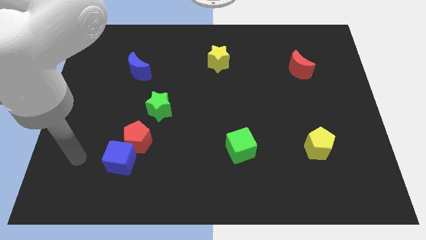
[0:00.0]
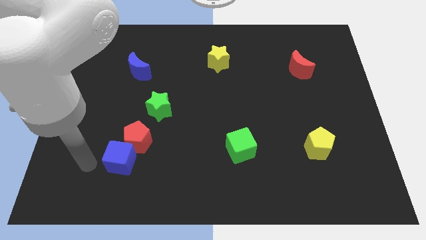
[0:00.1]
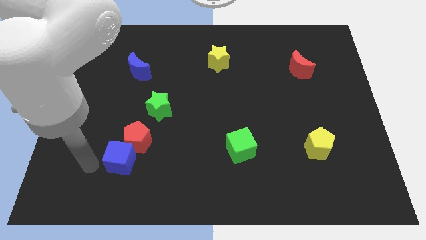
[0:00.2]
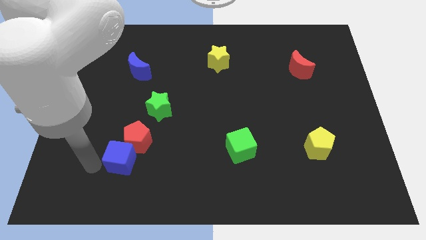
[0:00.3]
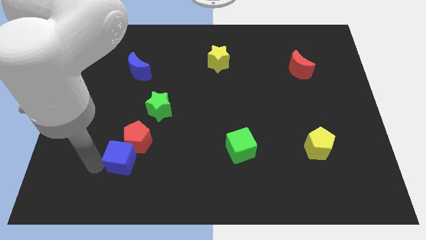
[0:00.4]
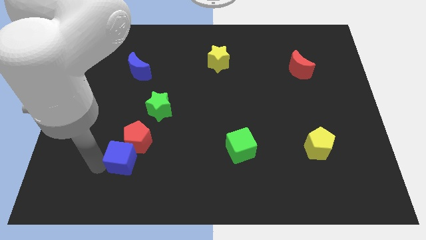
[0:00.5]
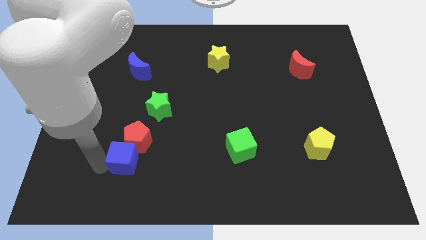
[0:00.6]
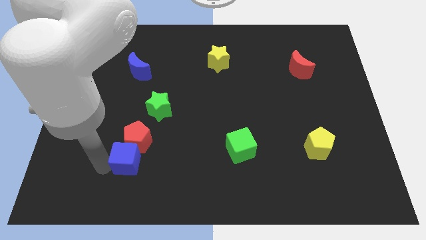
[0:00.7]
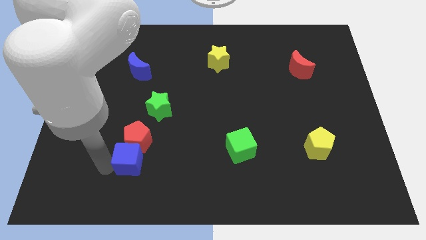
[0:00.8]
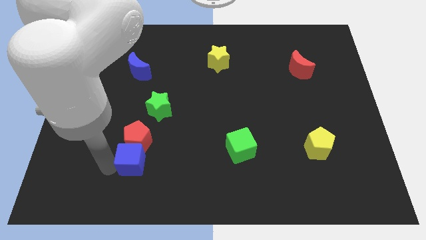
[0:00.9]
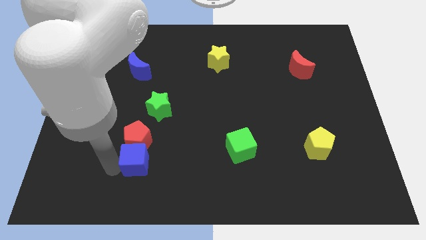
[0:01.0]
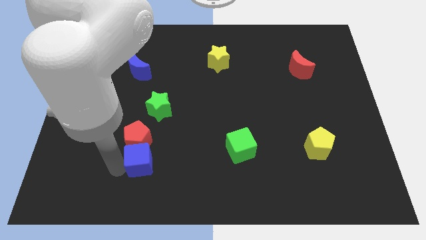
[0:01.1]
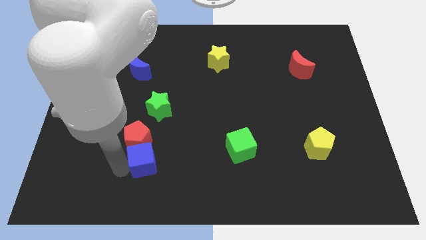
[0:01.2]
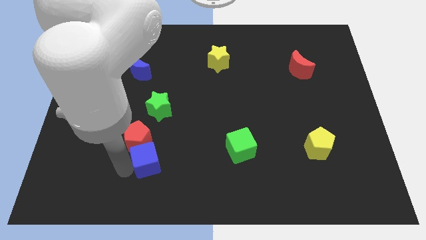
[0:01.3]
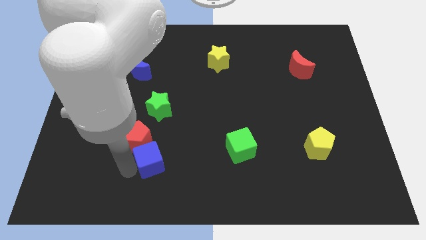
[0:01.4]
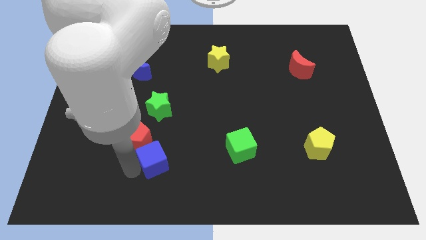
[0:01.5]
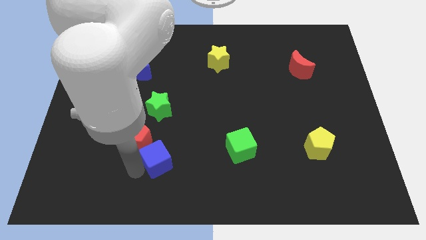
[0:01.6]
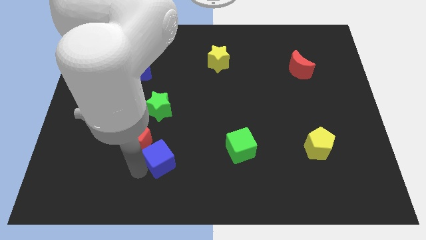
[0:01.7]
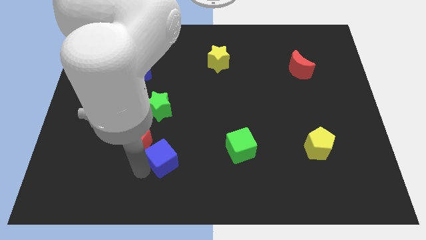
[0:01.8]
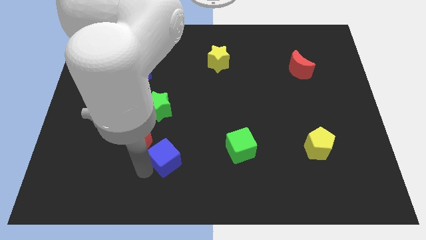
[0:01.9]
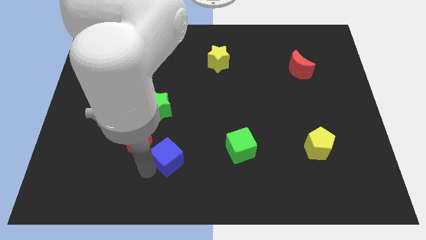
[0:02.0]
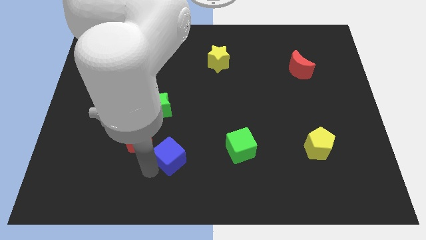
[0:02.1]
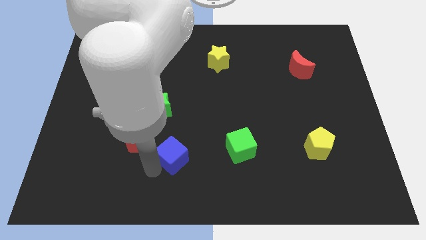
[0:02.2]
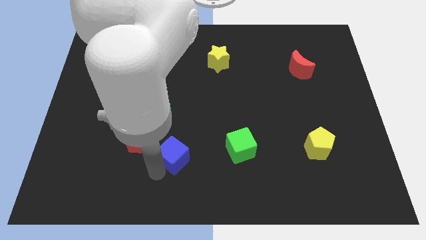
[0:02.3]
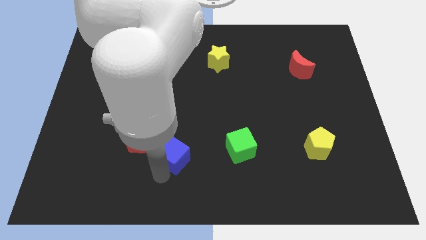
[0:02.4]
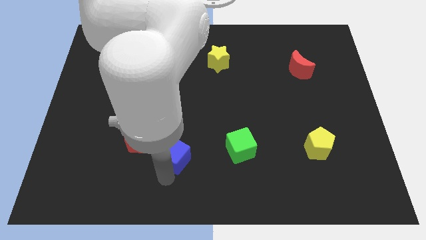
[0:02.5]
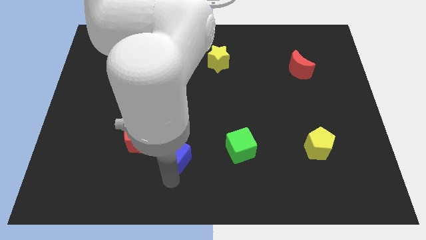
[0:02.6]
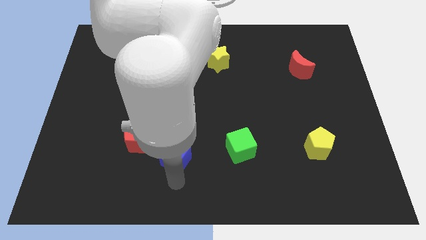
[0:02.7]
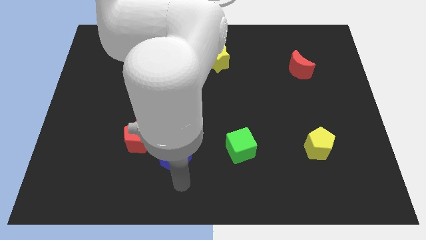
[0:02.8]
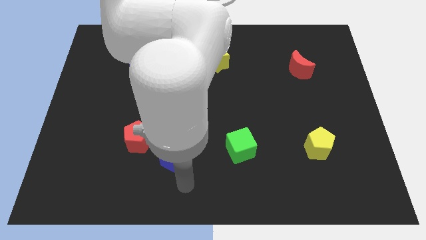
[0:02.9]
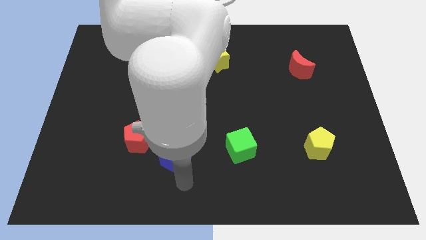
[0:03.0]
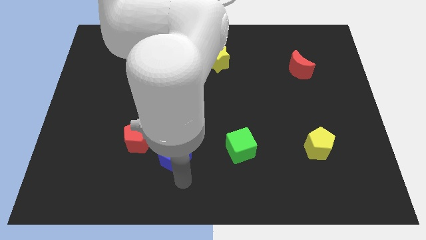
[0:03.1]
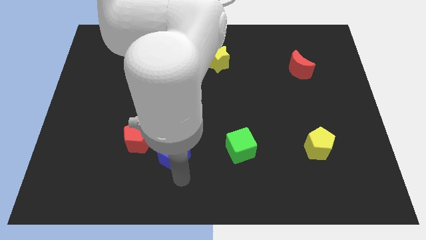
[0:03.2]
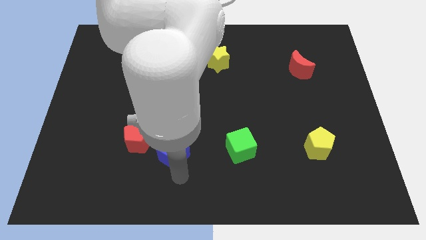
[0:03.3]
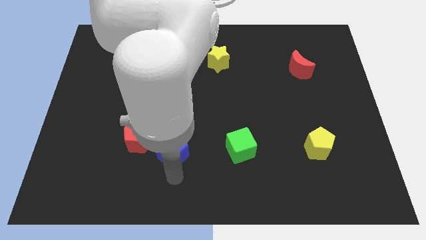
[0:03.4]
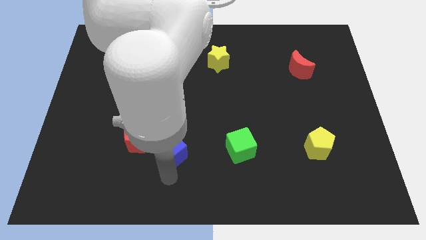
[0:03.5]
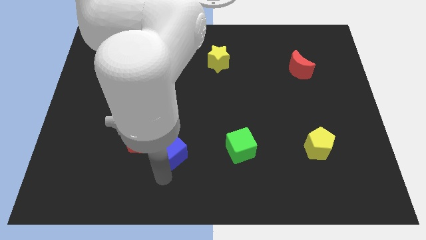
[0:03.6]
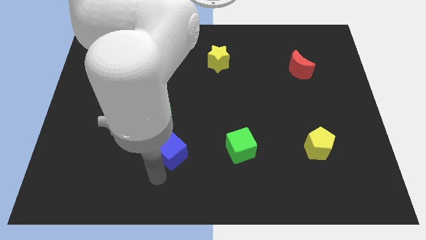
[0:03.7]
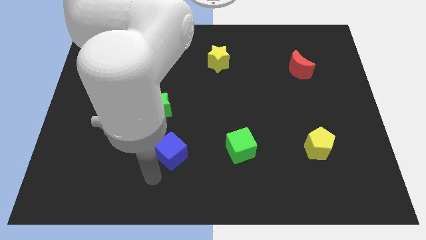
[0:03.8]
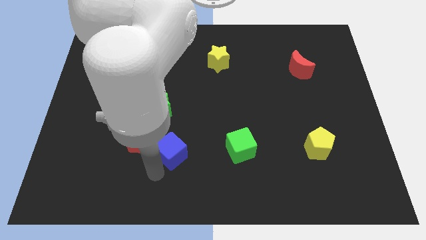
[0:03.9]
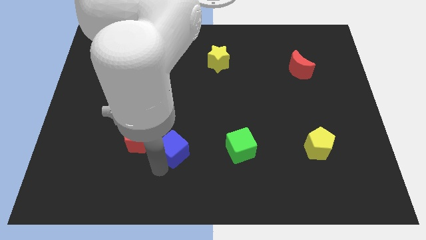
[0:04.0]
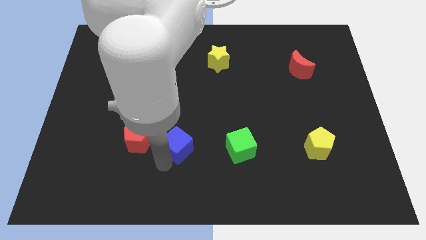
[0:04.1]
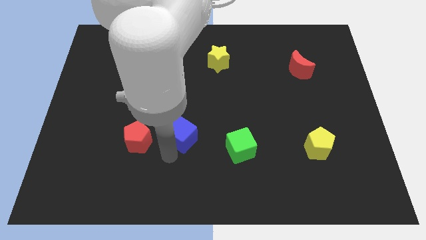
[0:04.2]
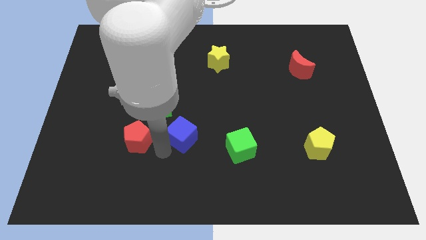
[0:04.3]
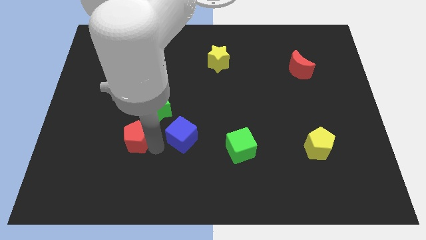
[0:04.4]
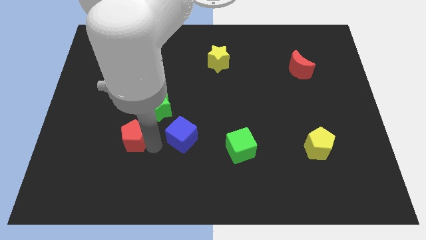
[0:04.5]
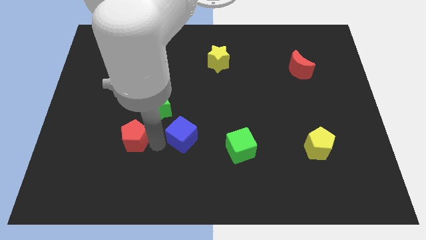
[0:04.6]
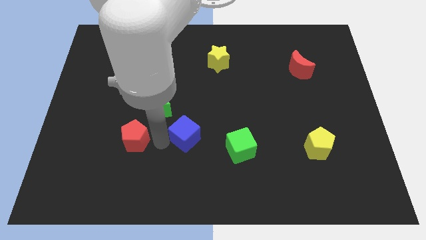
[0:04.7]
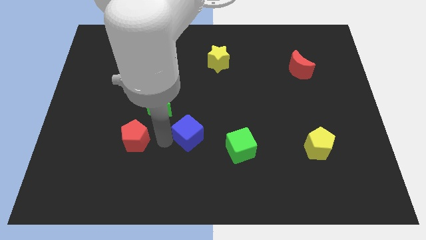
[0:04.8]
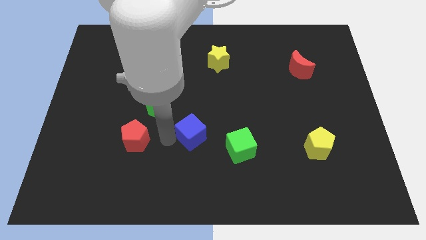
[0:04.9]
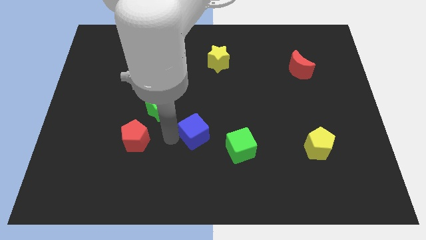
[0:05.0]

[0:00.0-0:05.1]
push the blue cube to the top left side of the green cube

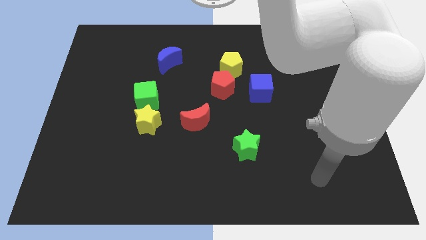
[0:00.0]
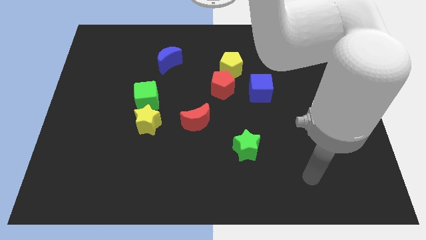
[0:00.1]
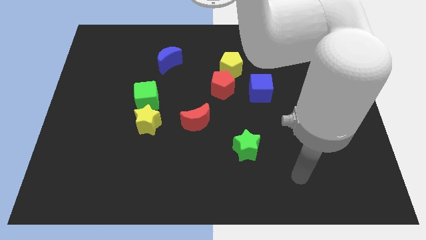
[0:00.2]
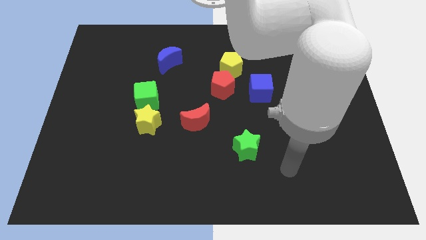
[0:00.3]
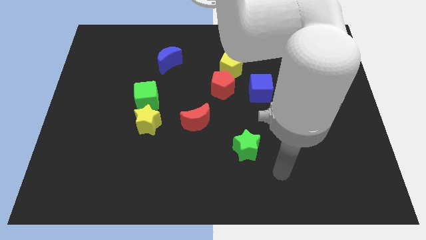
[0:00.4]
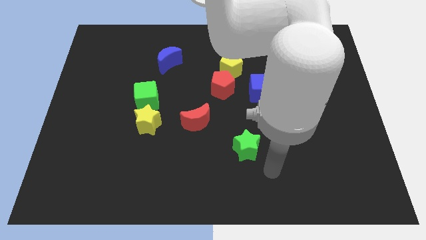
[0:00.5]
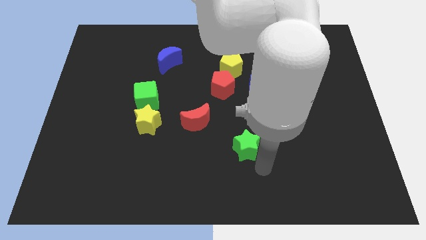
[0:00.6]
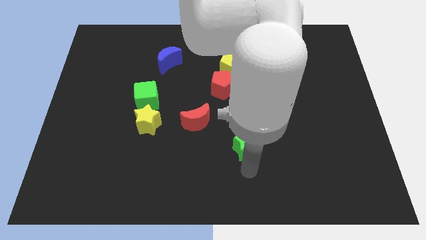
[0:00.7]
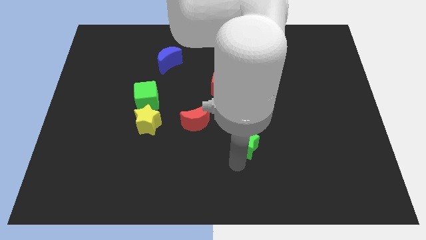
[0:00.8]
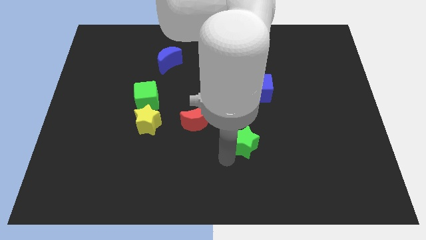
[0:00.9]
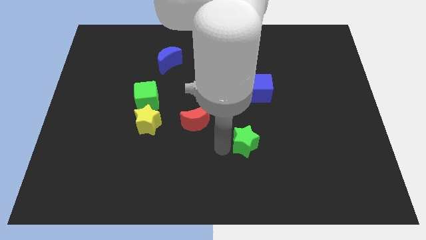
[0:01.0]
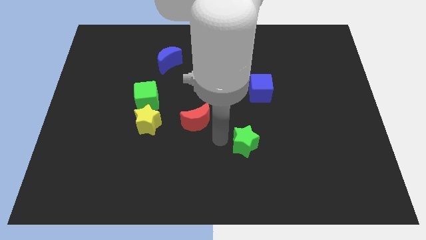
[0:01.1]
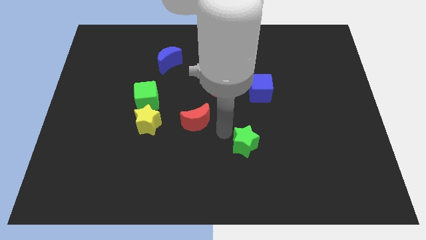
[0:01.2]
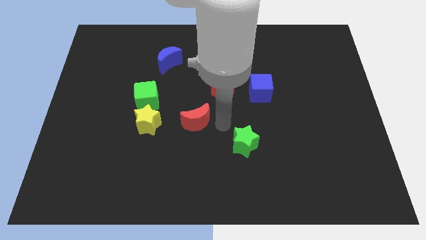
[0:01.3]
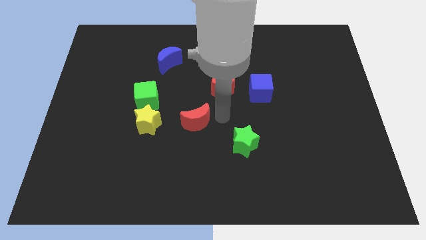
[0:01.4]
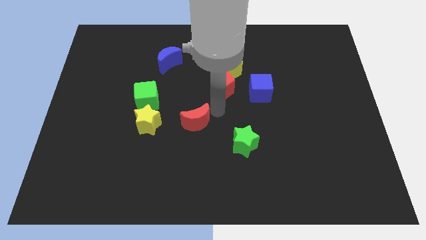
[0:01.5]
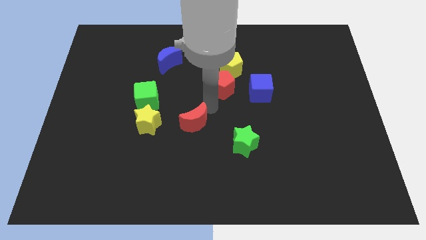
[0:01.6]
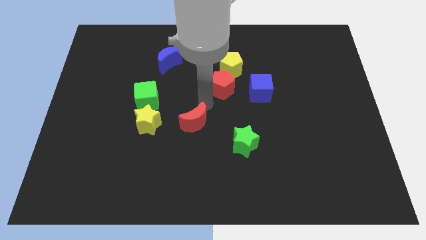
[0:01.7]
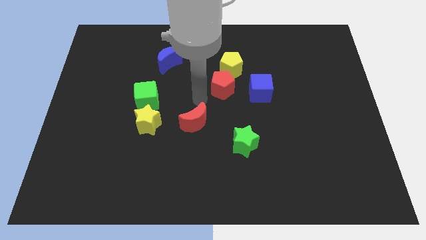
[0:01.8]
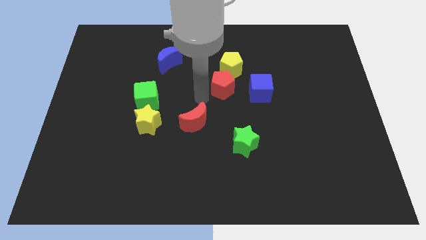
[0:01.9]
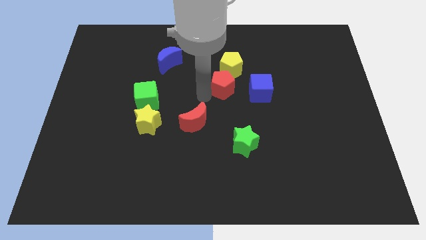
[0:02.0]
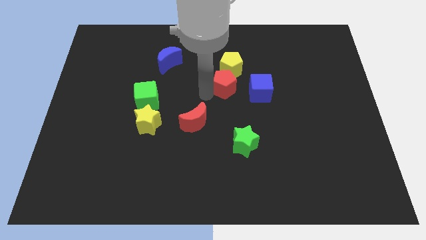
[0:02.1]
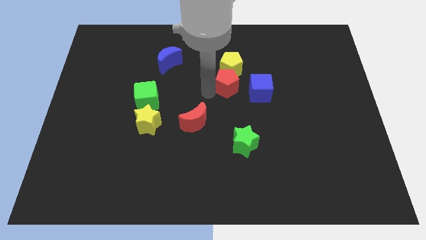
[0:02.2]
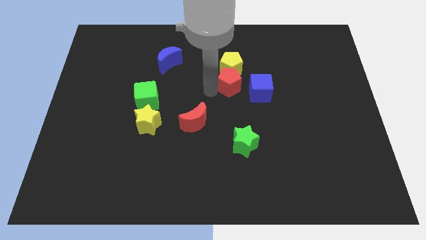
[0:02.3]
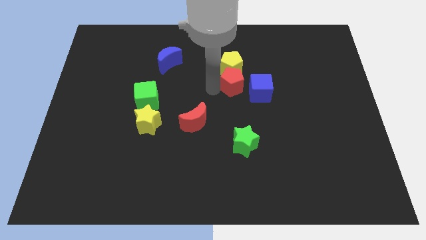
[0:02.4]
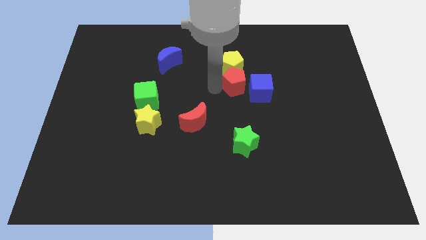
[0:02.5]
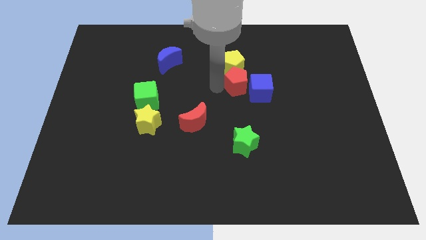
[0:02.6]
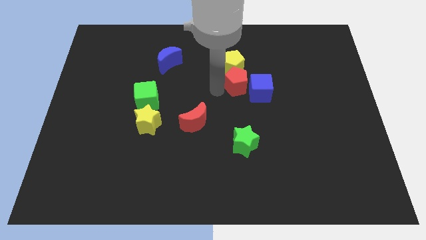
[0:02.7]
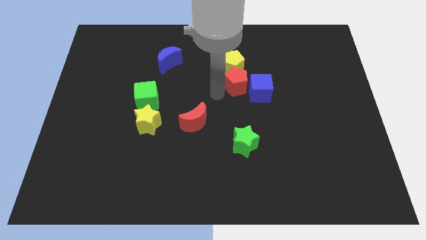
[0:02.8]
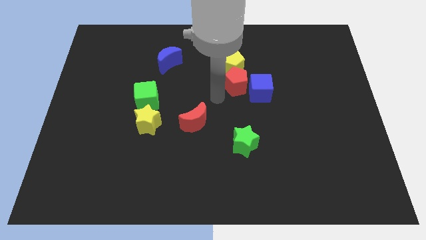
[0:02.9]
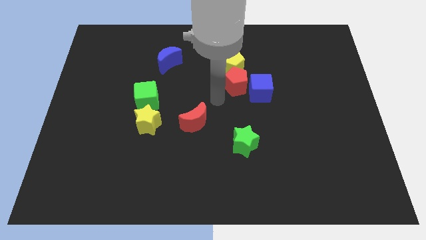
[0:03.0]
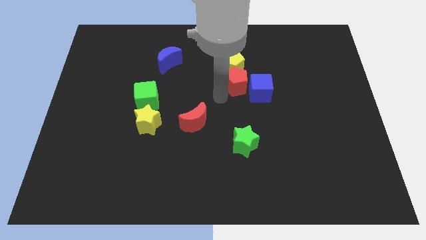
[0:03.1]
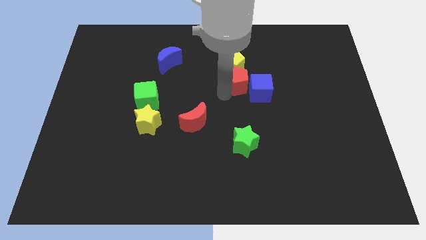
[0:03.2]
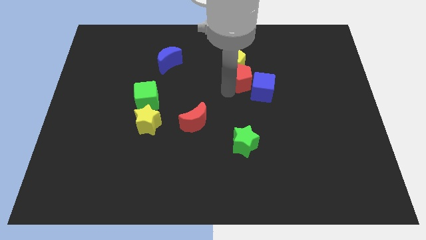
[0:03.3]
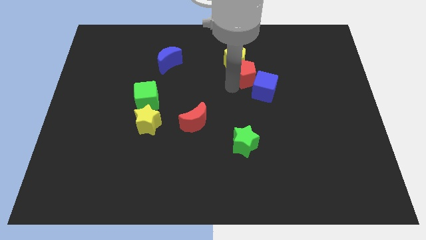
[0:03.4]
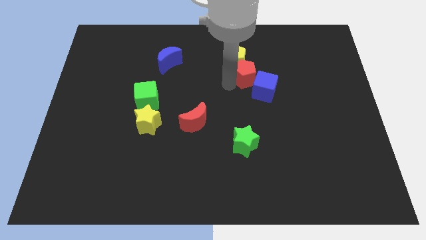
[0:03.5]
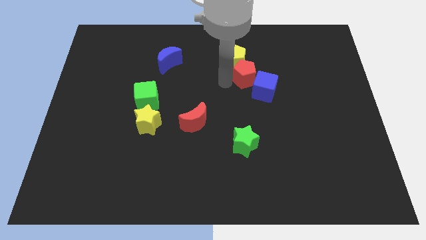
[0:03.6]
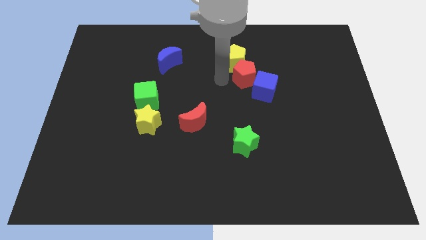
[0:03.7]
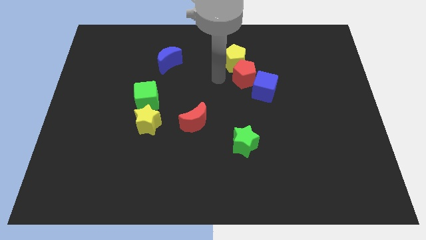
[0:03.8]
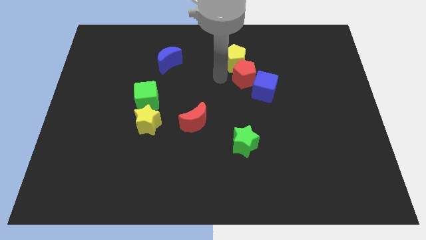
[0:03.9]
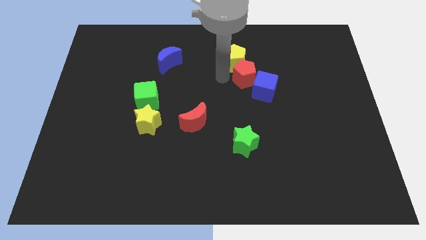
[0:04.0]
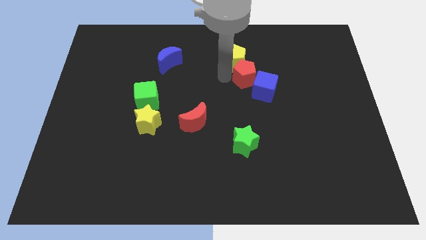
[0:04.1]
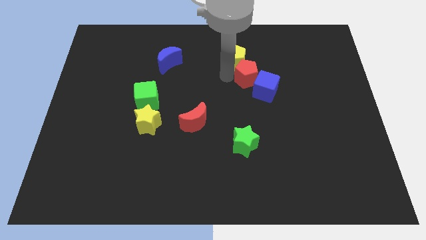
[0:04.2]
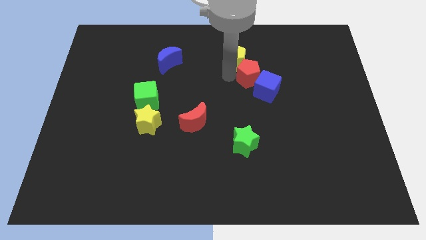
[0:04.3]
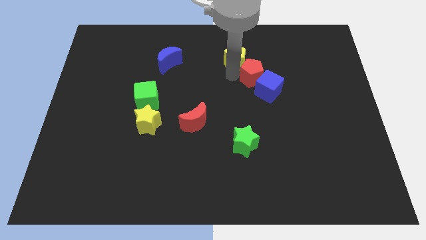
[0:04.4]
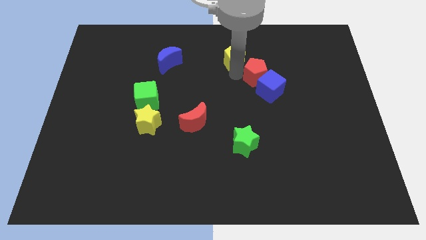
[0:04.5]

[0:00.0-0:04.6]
put the red pentagon to the right side of the yellow pentagon
